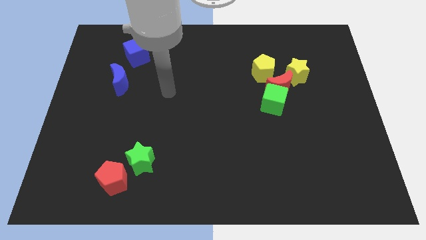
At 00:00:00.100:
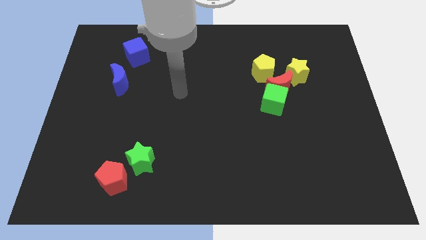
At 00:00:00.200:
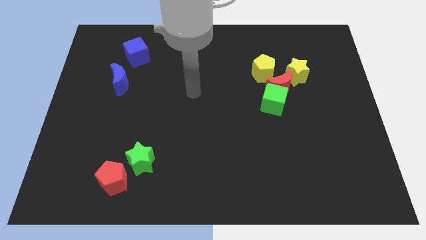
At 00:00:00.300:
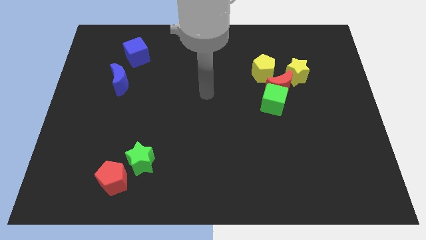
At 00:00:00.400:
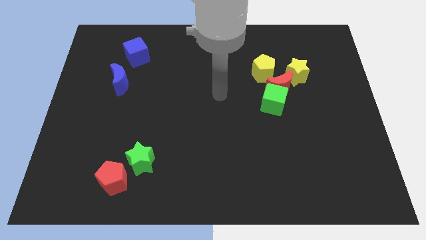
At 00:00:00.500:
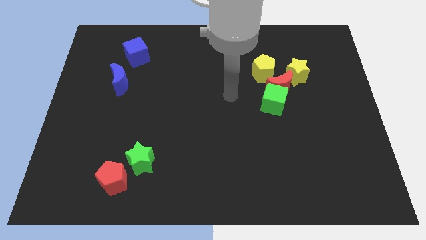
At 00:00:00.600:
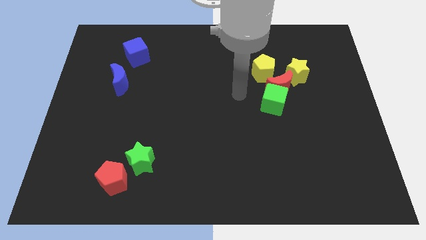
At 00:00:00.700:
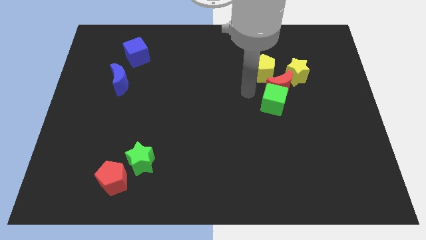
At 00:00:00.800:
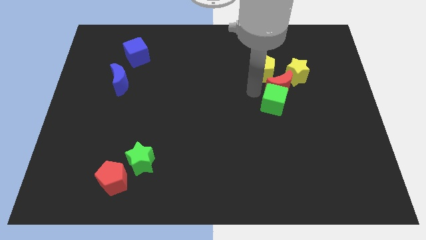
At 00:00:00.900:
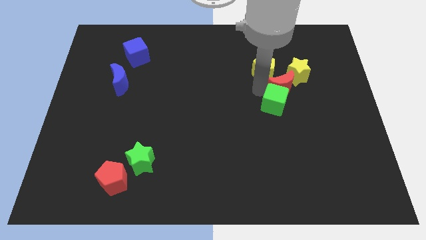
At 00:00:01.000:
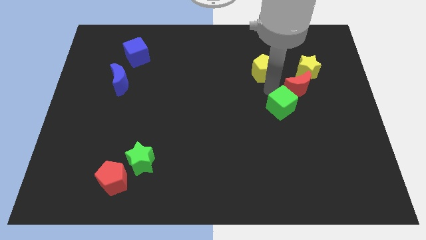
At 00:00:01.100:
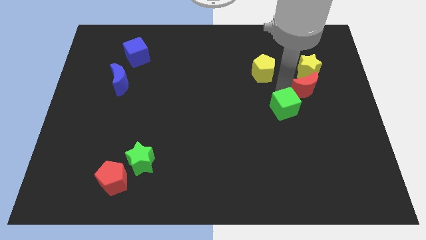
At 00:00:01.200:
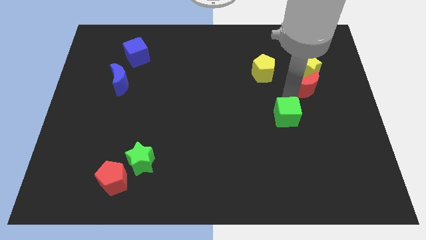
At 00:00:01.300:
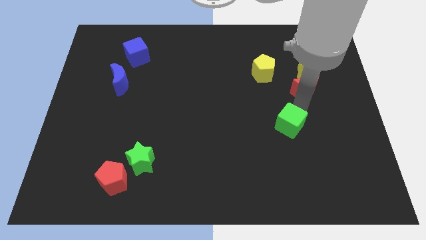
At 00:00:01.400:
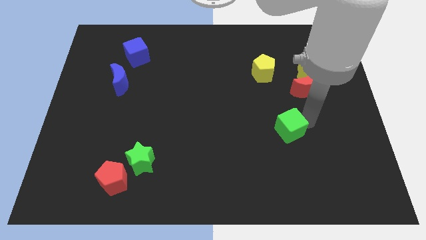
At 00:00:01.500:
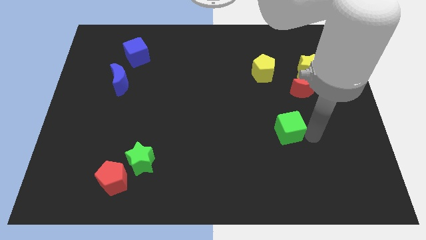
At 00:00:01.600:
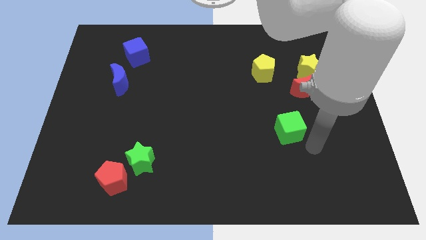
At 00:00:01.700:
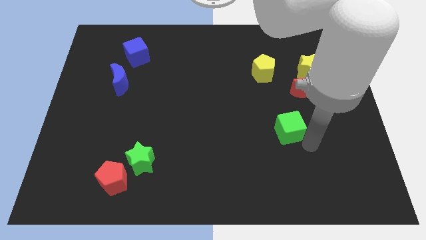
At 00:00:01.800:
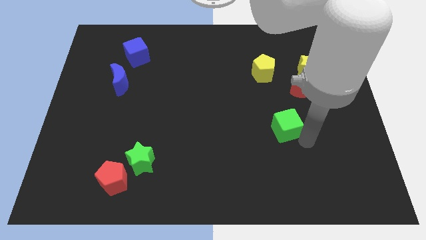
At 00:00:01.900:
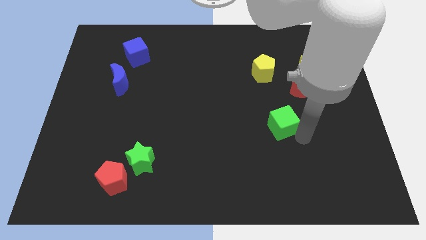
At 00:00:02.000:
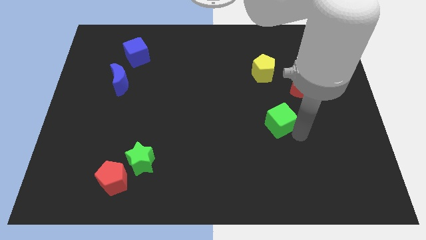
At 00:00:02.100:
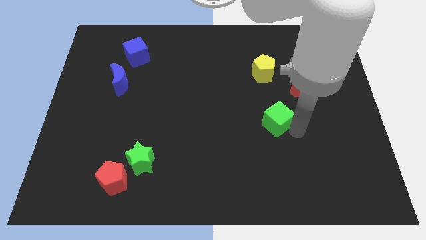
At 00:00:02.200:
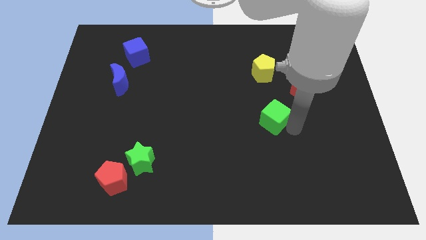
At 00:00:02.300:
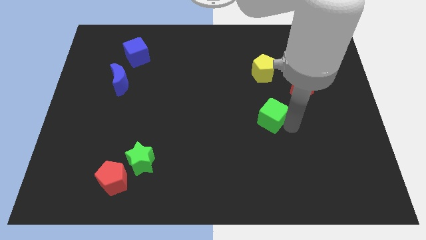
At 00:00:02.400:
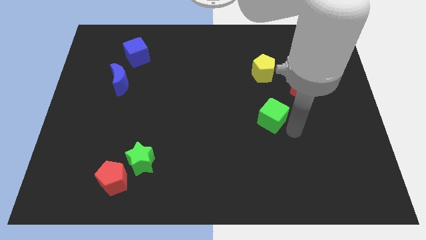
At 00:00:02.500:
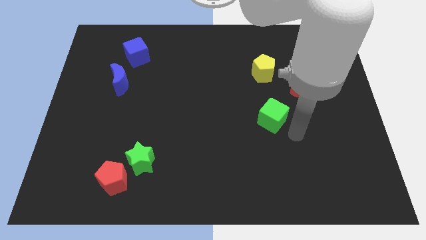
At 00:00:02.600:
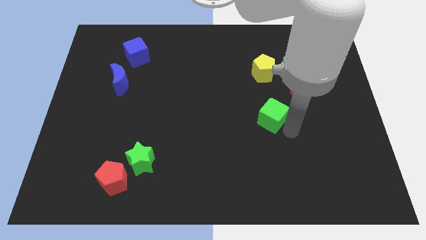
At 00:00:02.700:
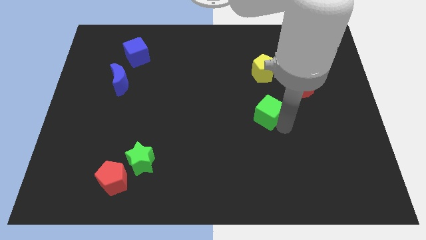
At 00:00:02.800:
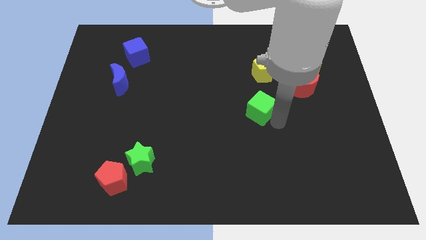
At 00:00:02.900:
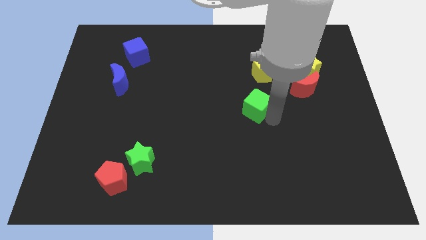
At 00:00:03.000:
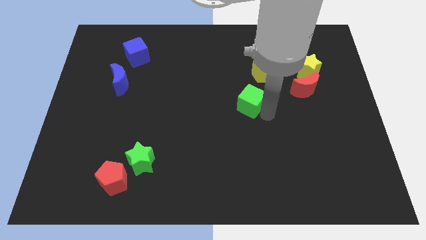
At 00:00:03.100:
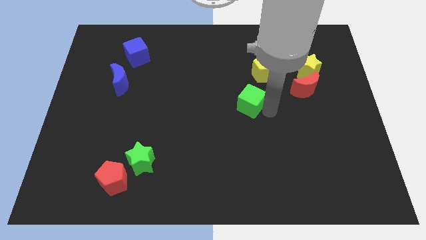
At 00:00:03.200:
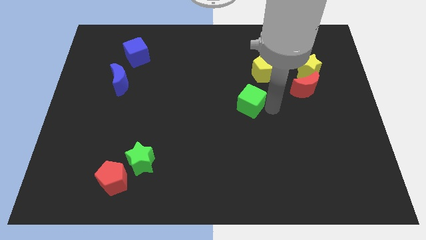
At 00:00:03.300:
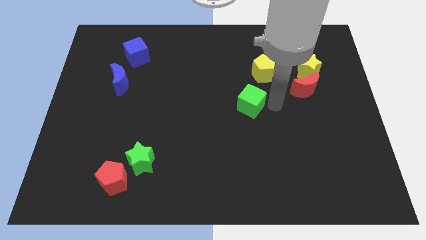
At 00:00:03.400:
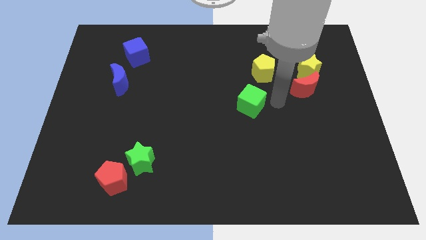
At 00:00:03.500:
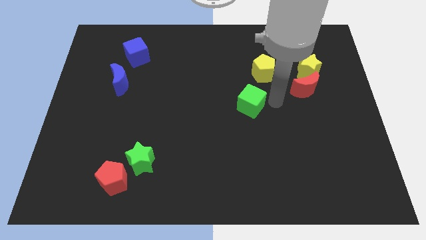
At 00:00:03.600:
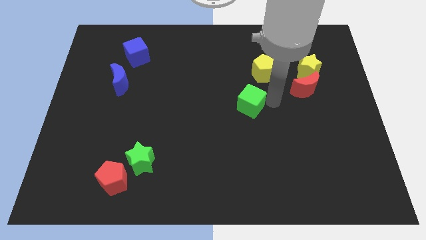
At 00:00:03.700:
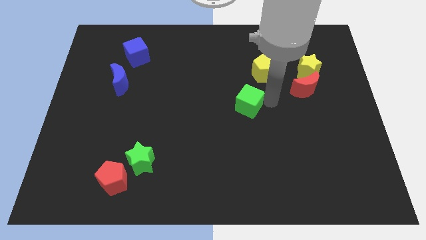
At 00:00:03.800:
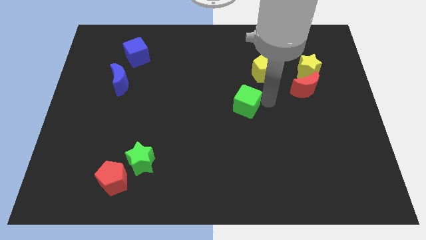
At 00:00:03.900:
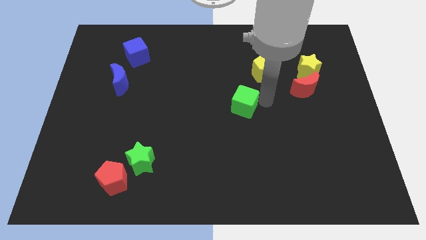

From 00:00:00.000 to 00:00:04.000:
push the green cube left a little

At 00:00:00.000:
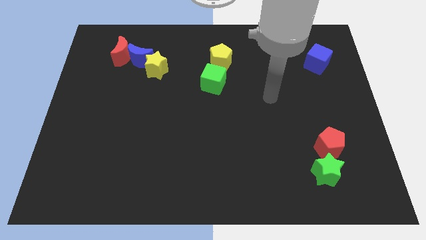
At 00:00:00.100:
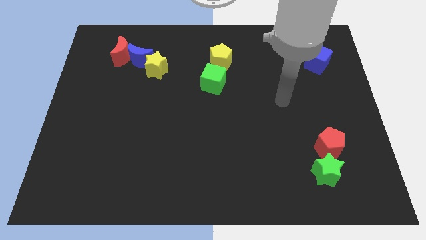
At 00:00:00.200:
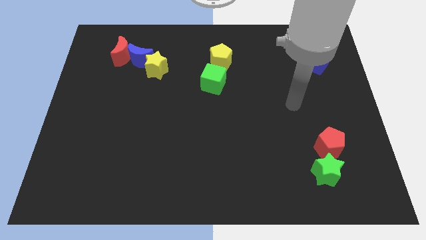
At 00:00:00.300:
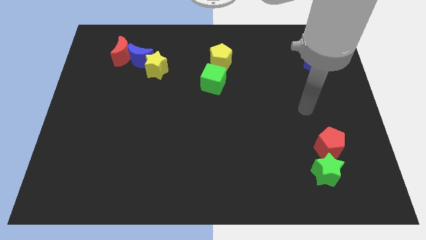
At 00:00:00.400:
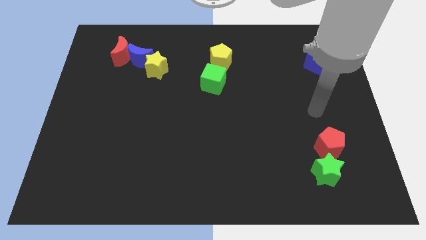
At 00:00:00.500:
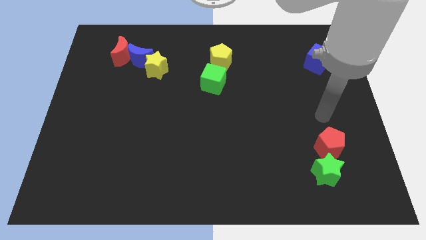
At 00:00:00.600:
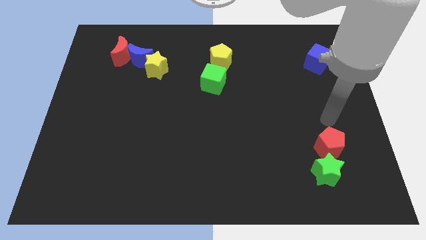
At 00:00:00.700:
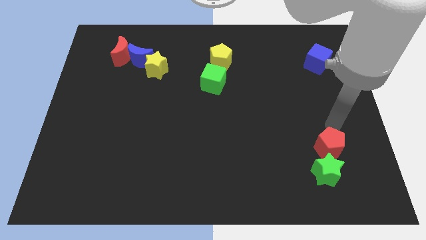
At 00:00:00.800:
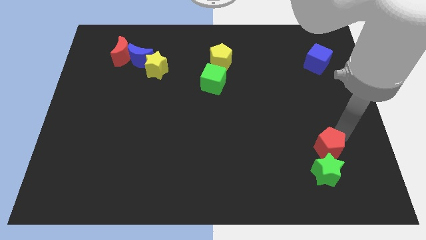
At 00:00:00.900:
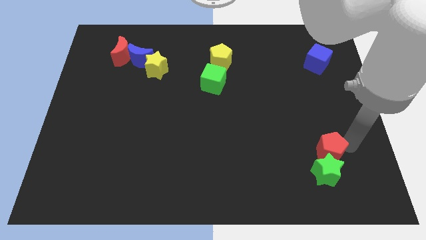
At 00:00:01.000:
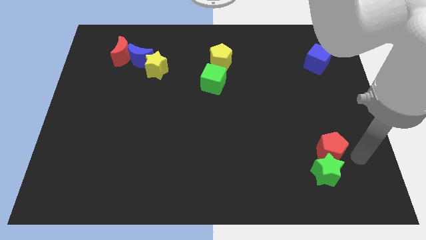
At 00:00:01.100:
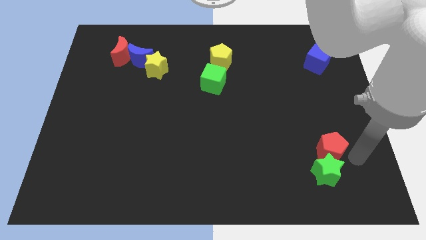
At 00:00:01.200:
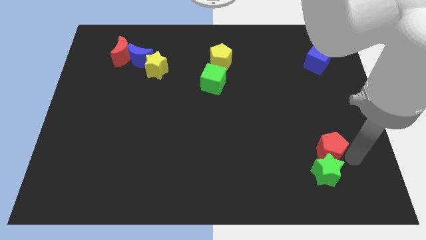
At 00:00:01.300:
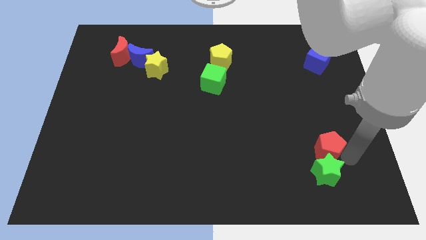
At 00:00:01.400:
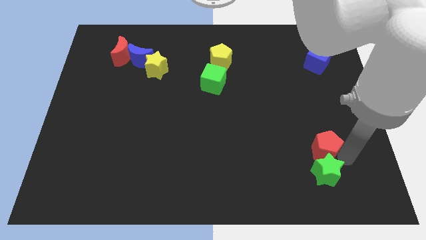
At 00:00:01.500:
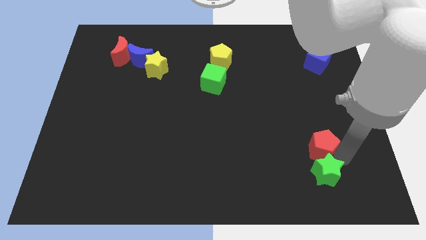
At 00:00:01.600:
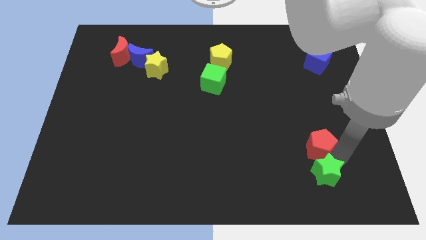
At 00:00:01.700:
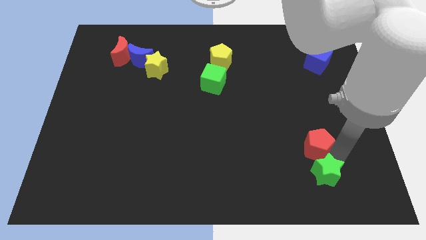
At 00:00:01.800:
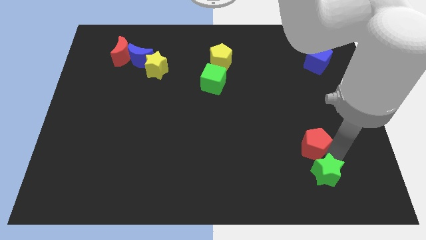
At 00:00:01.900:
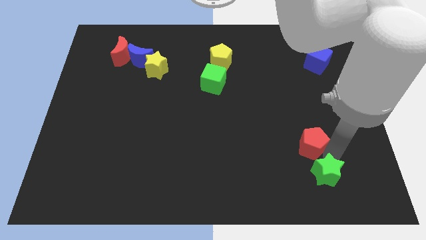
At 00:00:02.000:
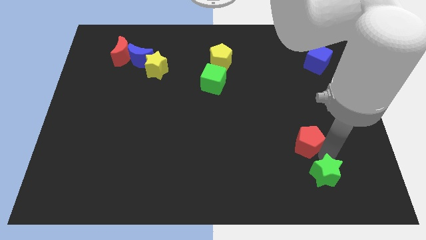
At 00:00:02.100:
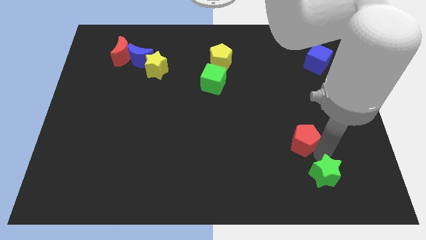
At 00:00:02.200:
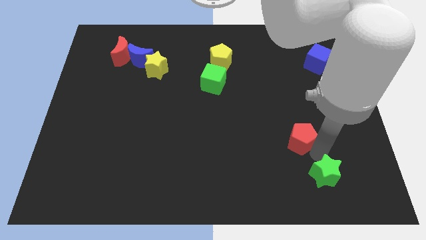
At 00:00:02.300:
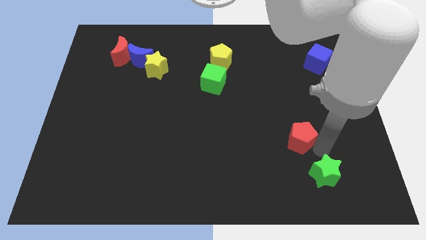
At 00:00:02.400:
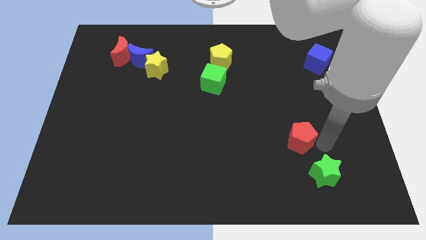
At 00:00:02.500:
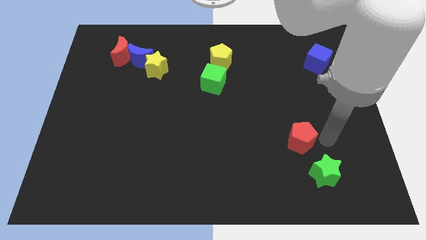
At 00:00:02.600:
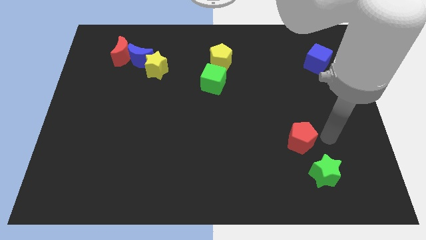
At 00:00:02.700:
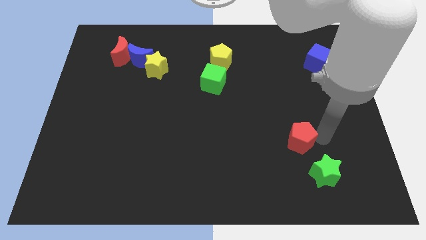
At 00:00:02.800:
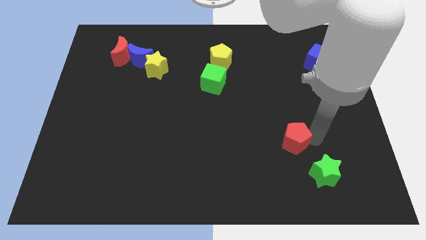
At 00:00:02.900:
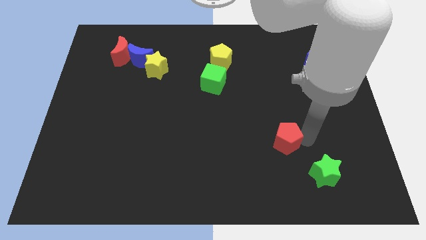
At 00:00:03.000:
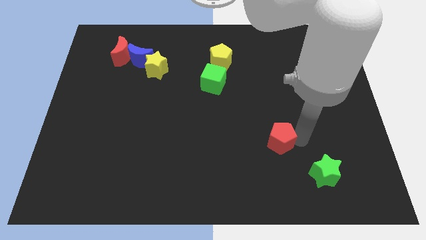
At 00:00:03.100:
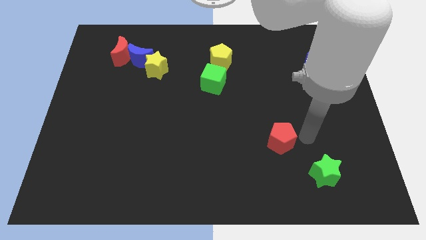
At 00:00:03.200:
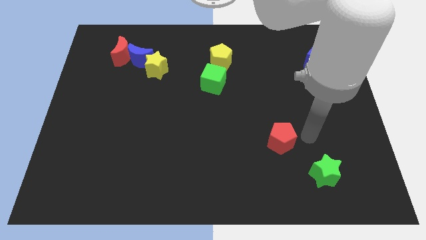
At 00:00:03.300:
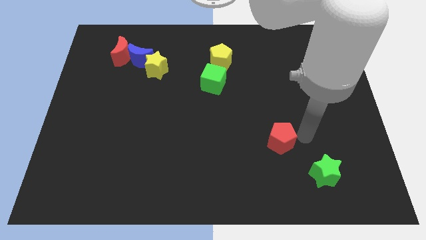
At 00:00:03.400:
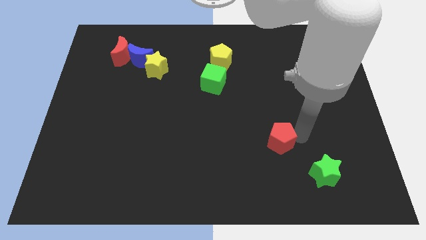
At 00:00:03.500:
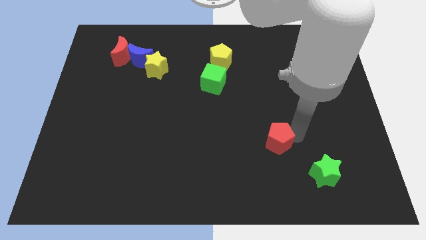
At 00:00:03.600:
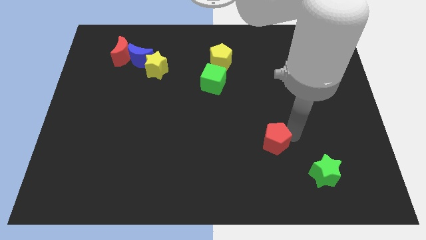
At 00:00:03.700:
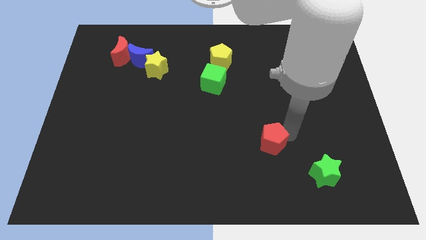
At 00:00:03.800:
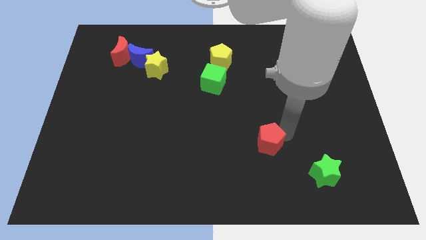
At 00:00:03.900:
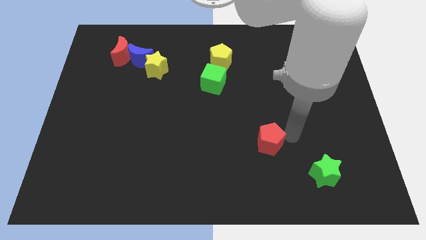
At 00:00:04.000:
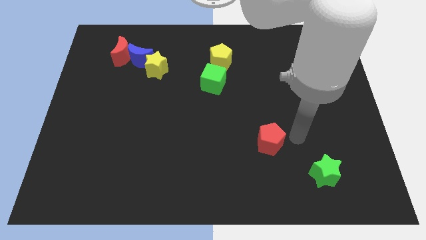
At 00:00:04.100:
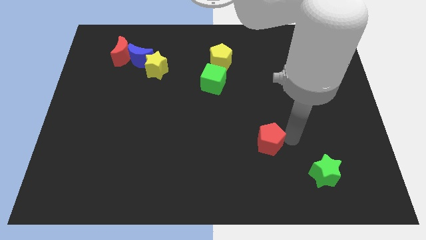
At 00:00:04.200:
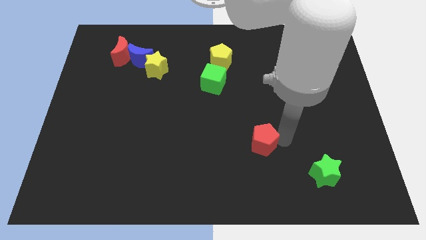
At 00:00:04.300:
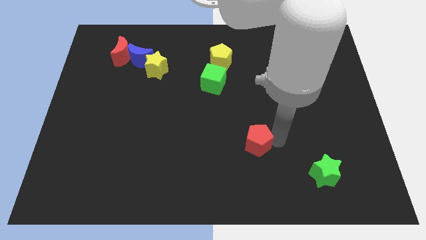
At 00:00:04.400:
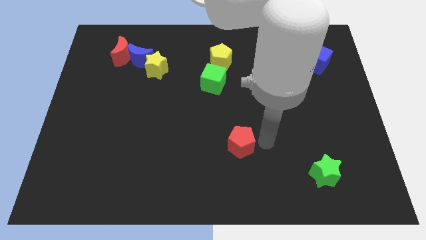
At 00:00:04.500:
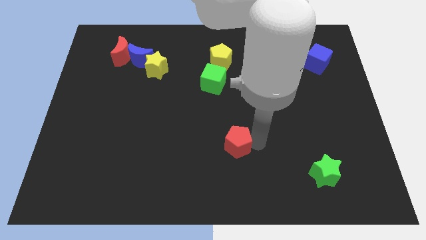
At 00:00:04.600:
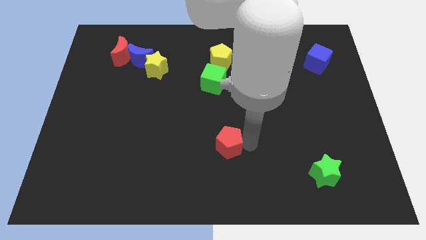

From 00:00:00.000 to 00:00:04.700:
move the red pentagon to the left
